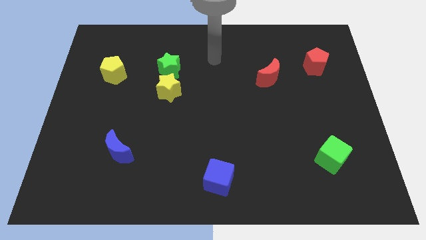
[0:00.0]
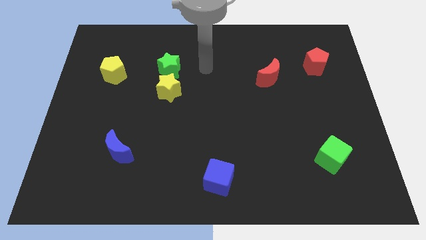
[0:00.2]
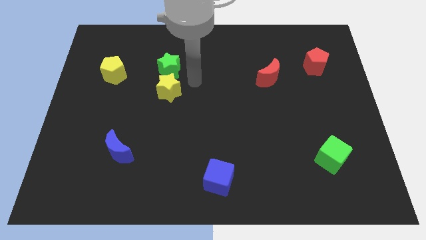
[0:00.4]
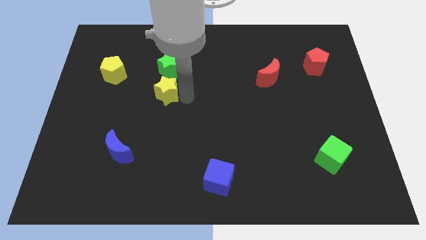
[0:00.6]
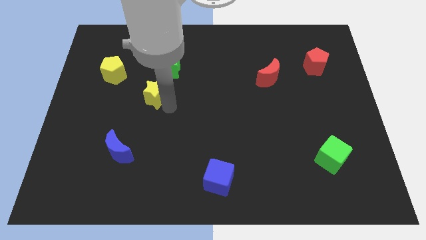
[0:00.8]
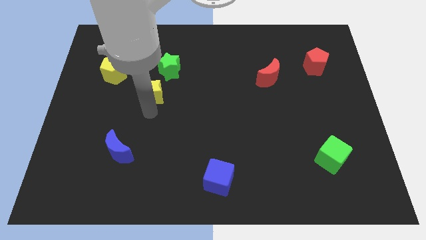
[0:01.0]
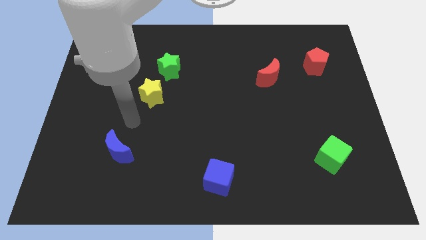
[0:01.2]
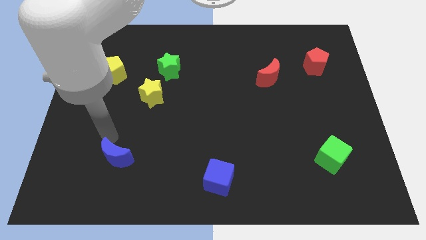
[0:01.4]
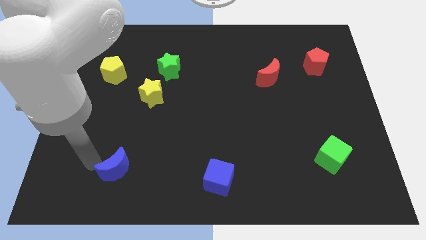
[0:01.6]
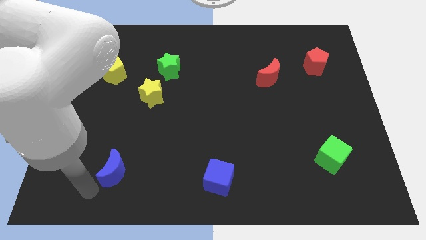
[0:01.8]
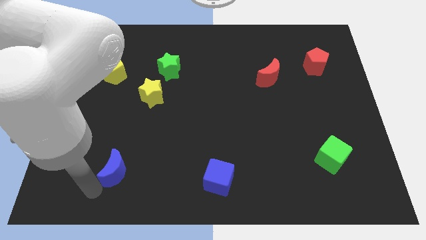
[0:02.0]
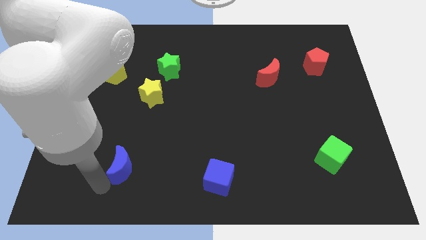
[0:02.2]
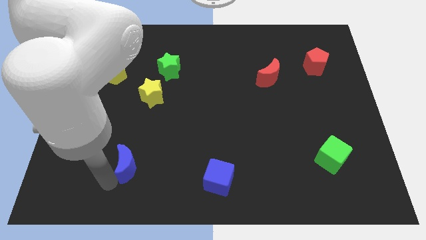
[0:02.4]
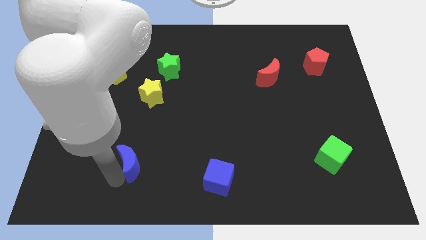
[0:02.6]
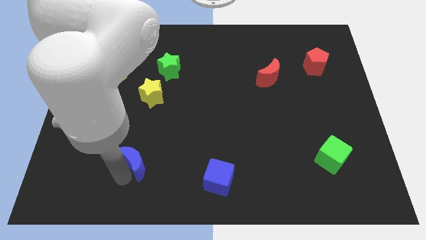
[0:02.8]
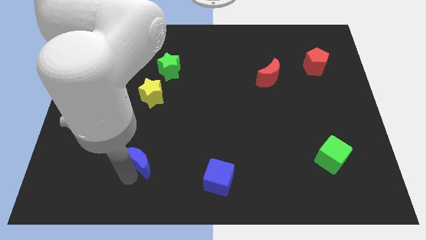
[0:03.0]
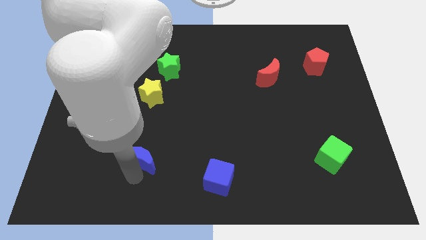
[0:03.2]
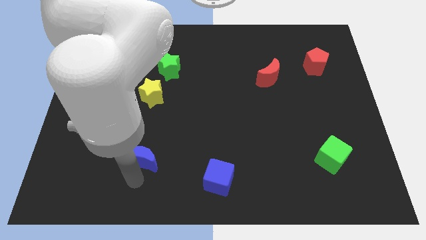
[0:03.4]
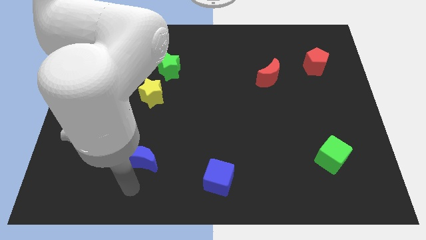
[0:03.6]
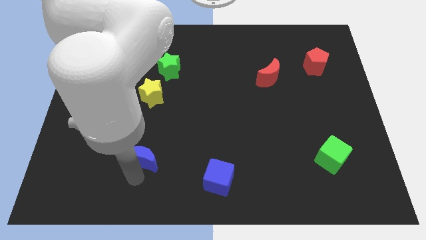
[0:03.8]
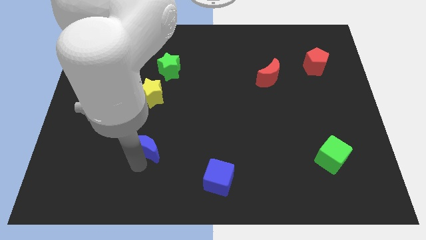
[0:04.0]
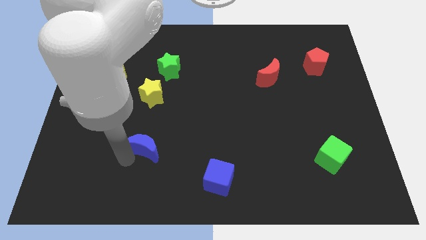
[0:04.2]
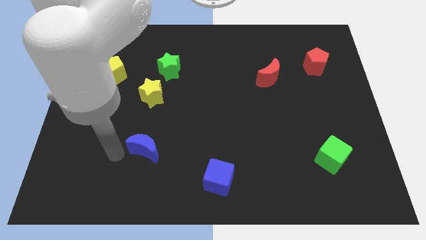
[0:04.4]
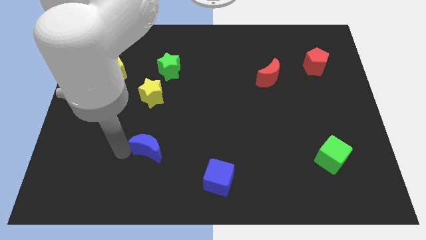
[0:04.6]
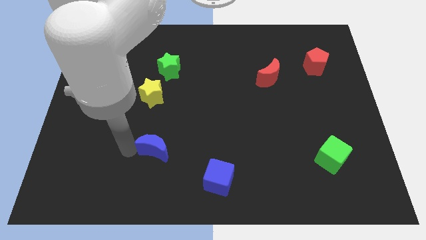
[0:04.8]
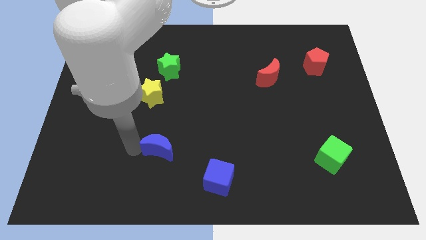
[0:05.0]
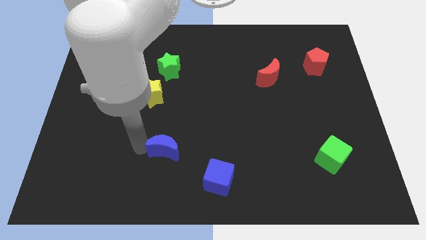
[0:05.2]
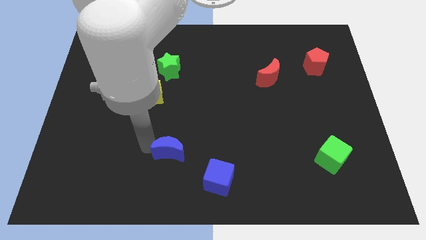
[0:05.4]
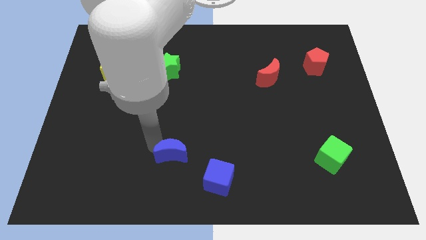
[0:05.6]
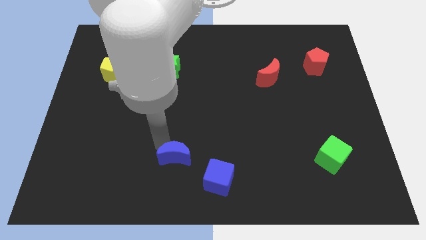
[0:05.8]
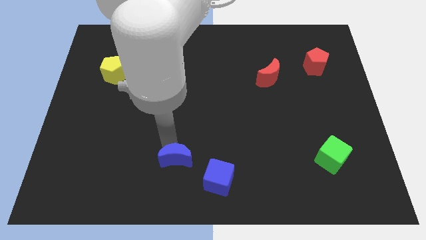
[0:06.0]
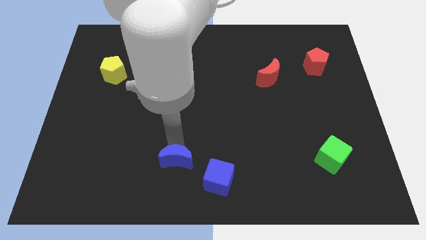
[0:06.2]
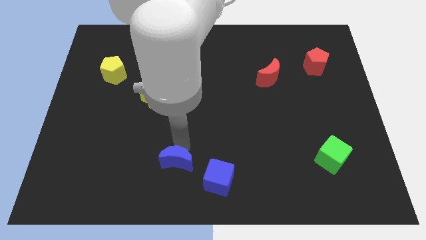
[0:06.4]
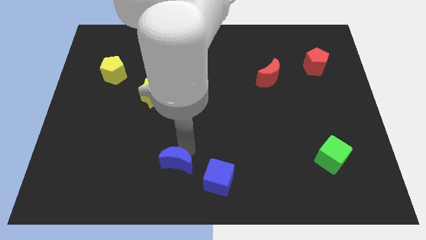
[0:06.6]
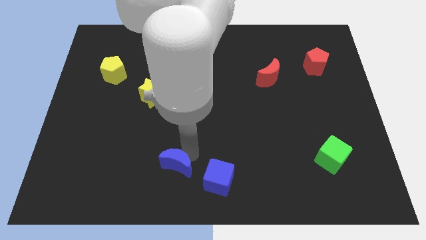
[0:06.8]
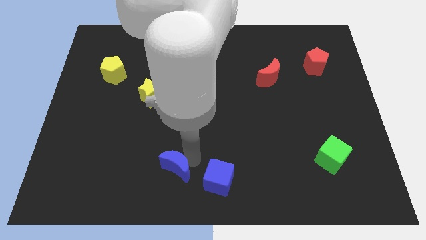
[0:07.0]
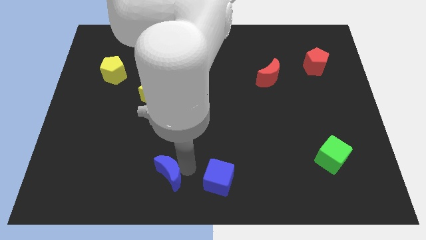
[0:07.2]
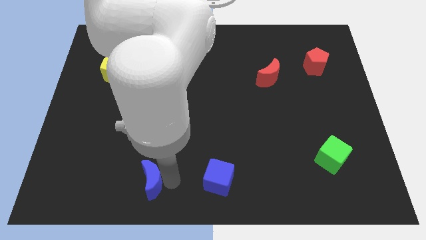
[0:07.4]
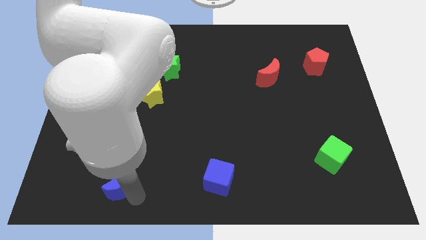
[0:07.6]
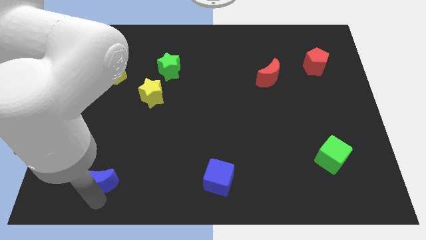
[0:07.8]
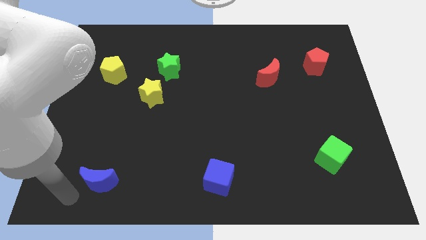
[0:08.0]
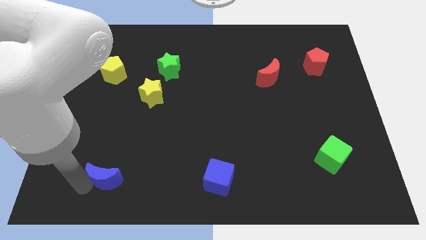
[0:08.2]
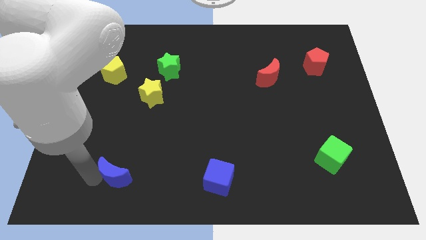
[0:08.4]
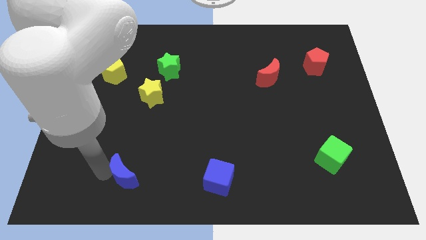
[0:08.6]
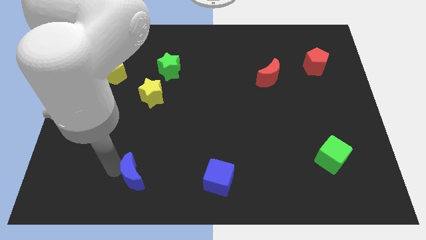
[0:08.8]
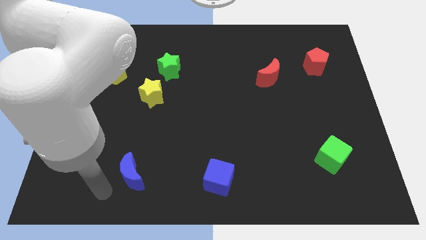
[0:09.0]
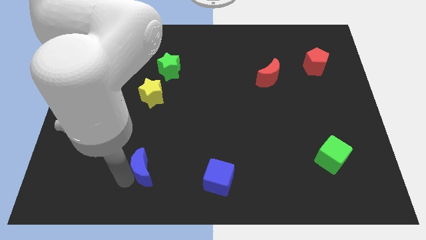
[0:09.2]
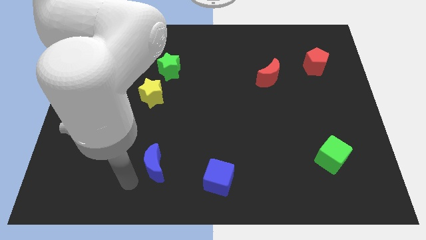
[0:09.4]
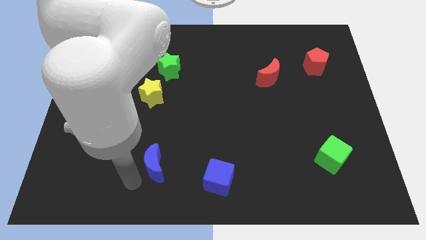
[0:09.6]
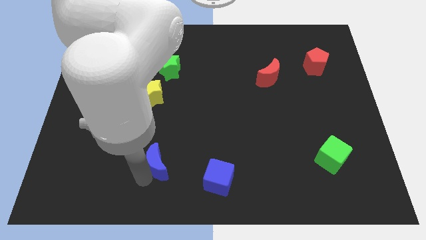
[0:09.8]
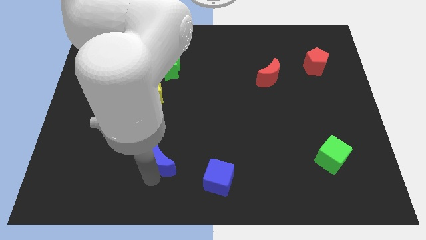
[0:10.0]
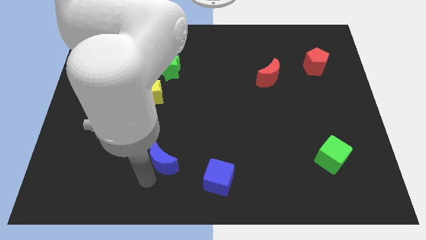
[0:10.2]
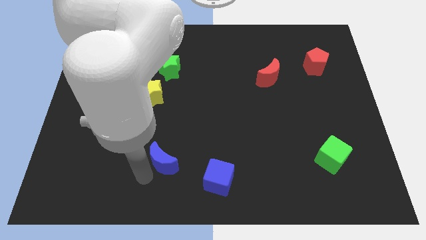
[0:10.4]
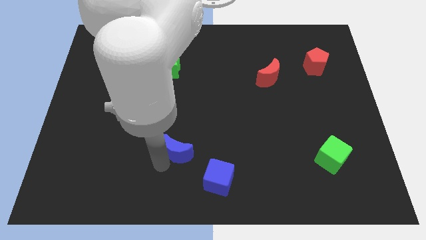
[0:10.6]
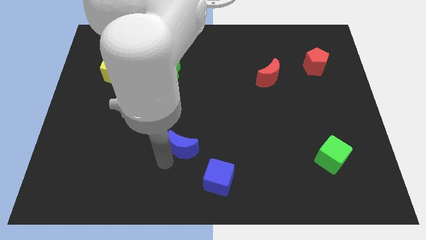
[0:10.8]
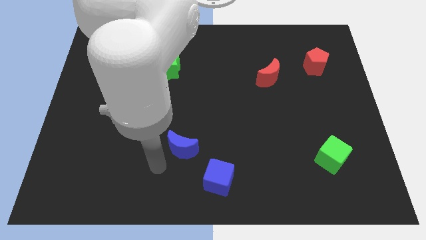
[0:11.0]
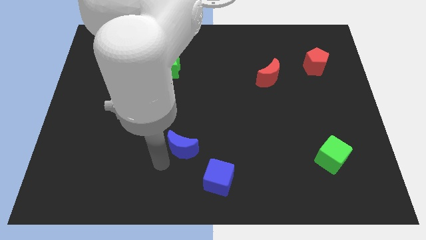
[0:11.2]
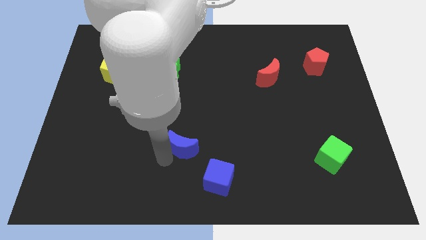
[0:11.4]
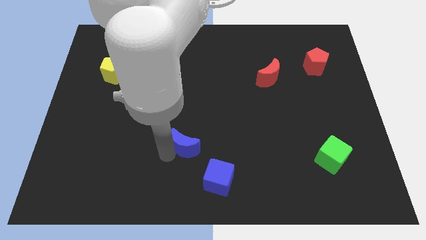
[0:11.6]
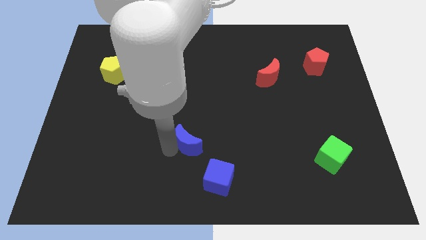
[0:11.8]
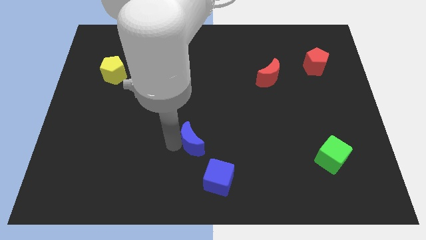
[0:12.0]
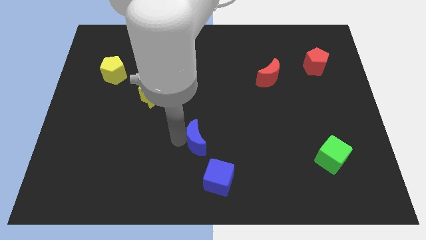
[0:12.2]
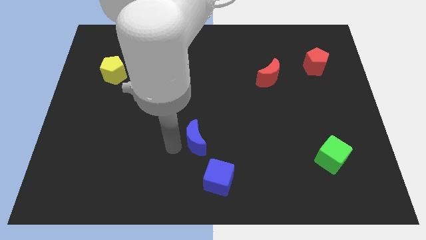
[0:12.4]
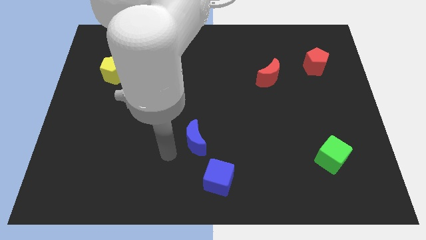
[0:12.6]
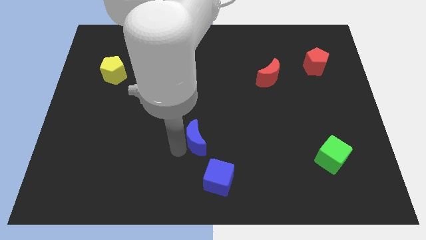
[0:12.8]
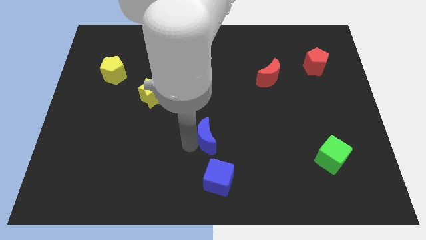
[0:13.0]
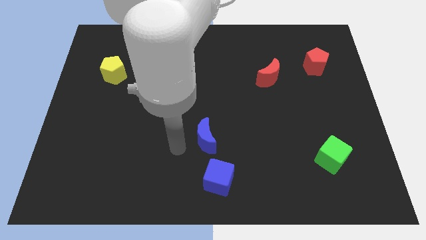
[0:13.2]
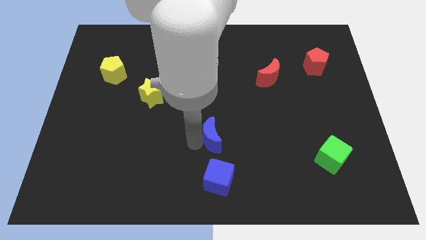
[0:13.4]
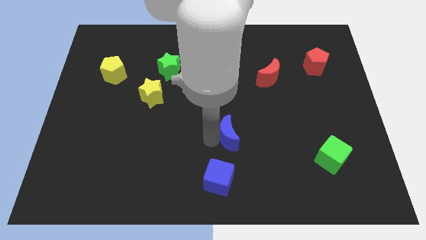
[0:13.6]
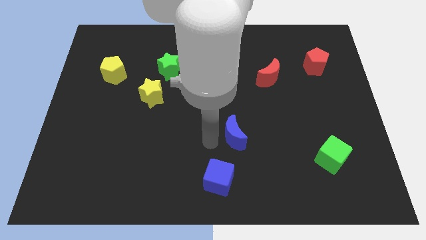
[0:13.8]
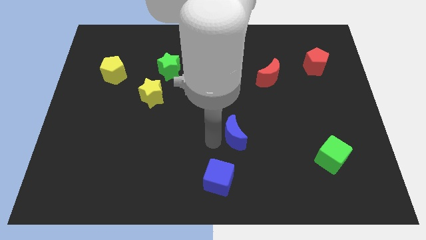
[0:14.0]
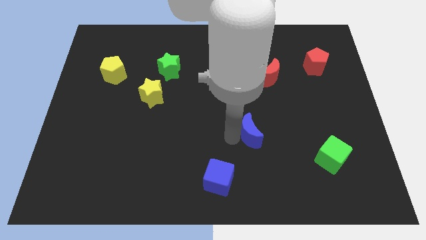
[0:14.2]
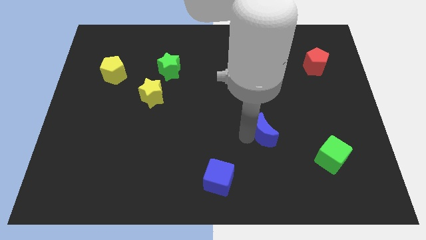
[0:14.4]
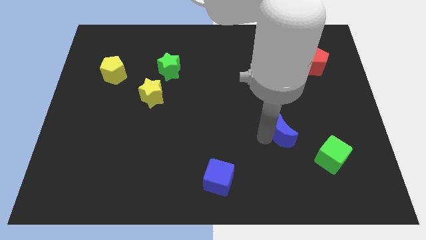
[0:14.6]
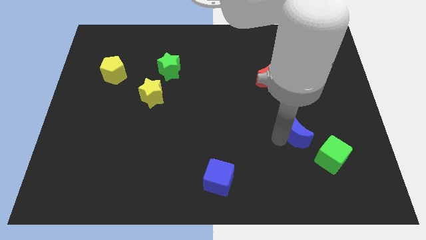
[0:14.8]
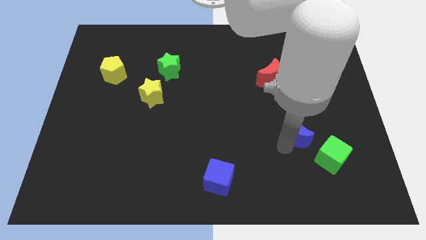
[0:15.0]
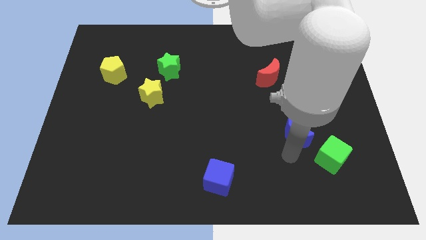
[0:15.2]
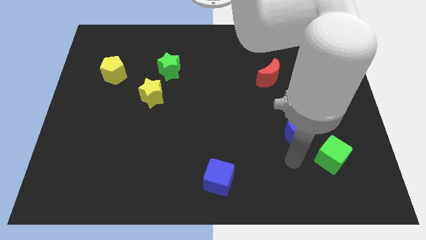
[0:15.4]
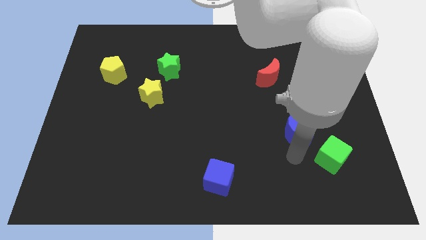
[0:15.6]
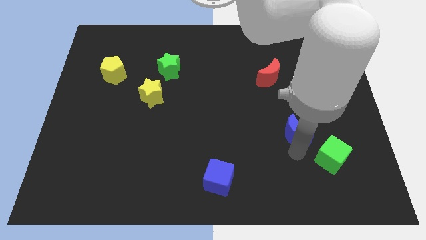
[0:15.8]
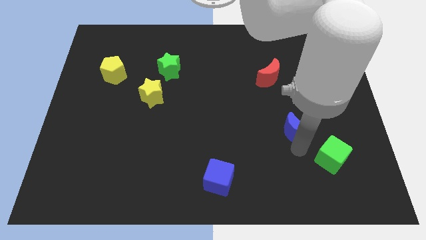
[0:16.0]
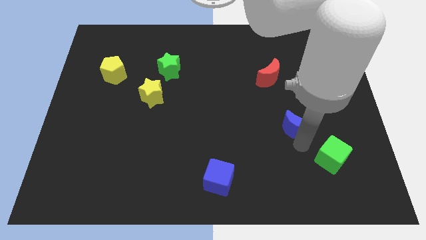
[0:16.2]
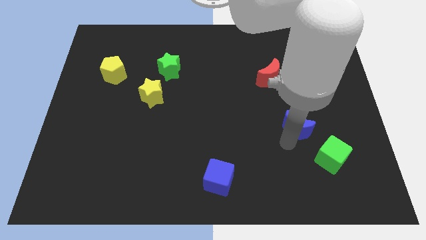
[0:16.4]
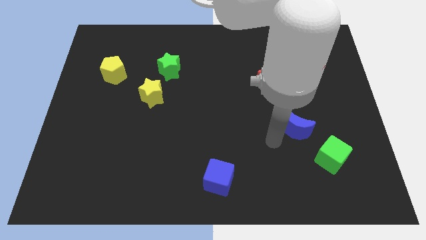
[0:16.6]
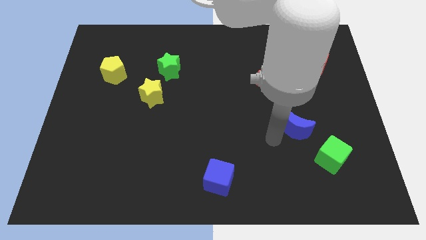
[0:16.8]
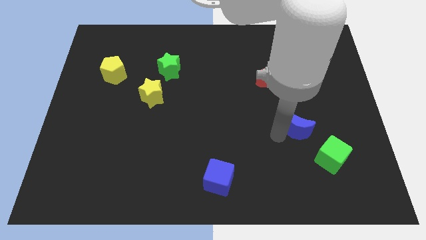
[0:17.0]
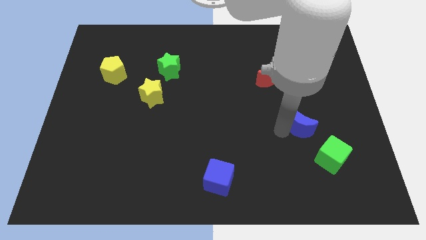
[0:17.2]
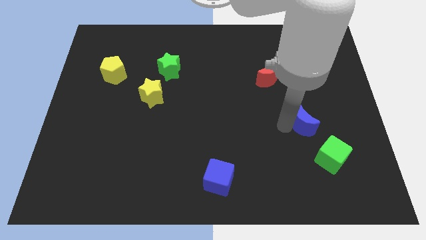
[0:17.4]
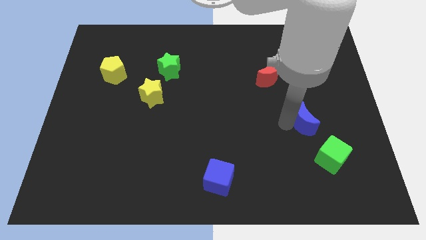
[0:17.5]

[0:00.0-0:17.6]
put the blue moon above the green cube
